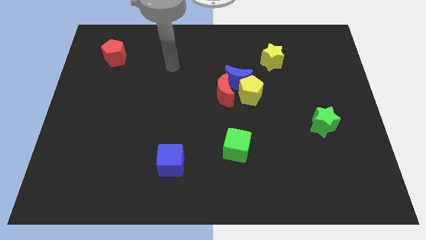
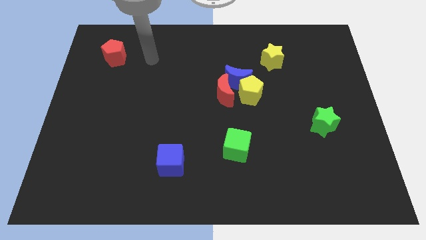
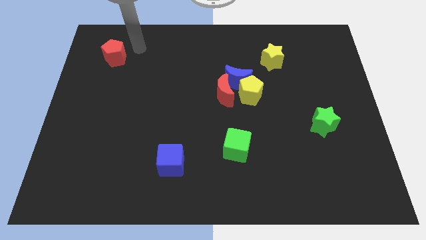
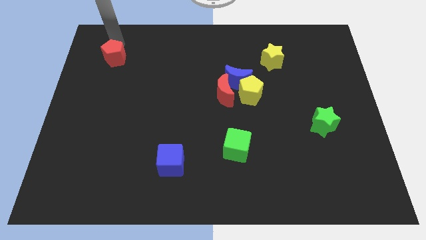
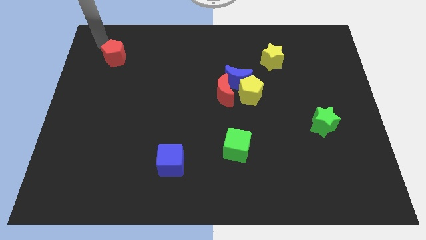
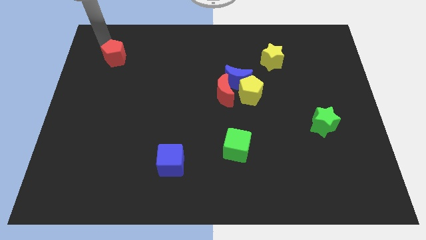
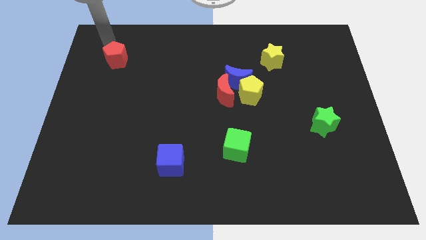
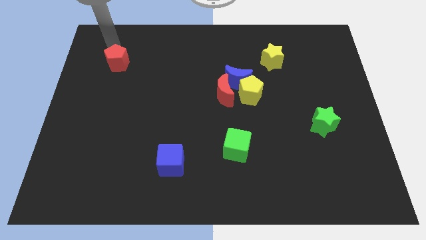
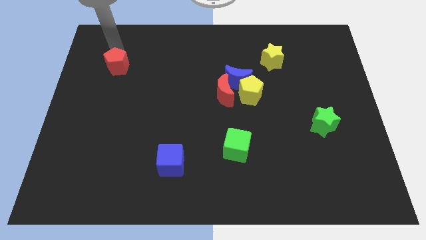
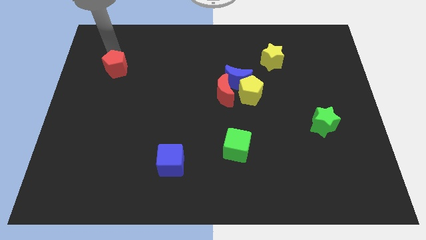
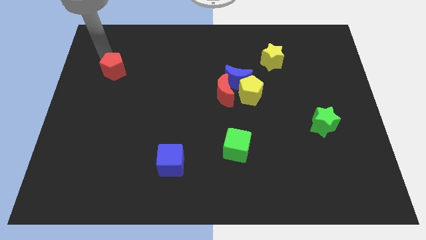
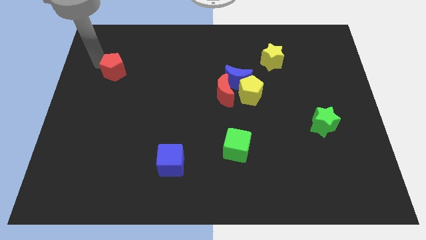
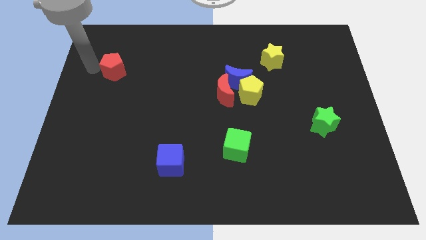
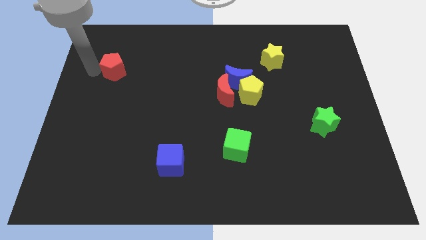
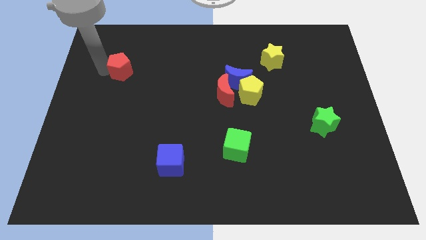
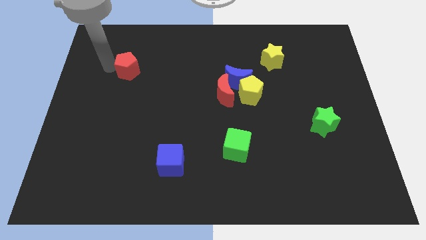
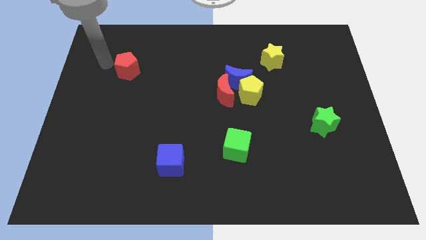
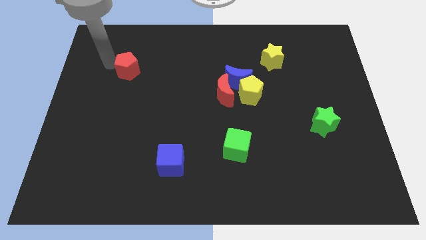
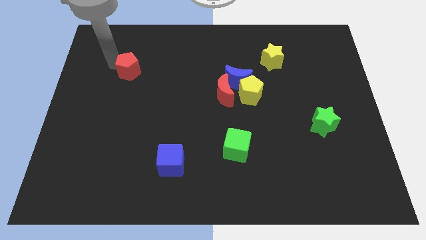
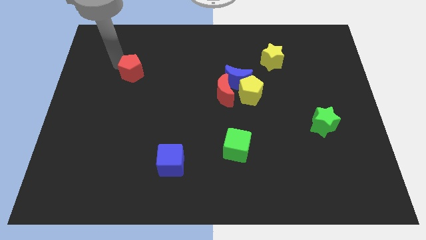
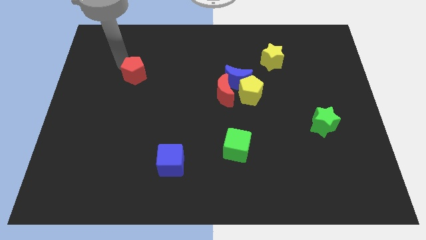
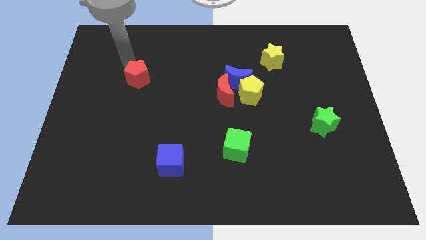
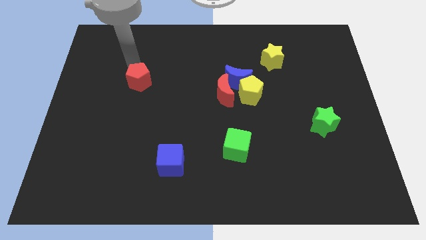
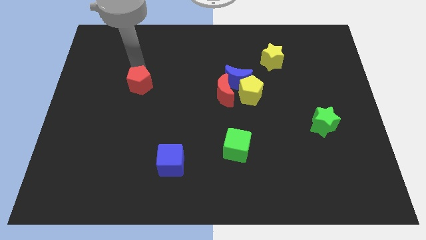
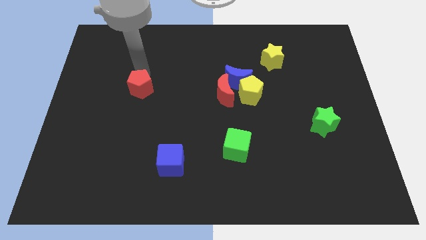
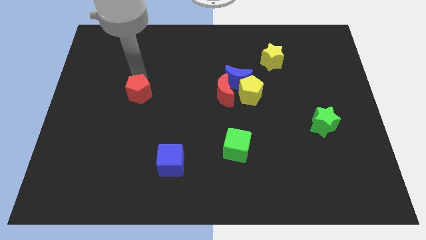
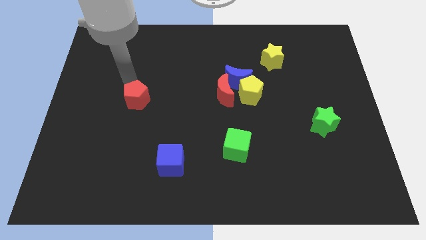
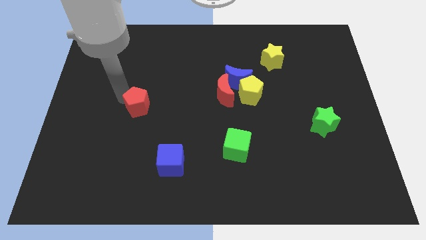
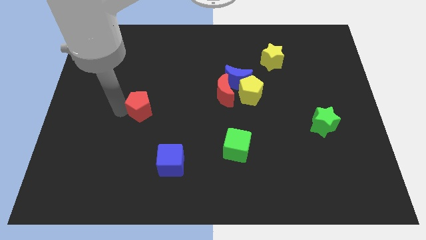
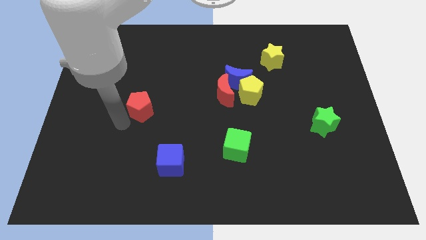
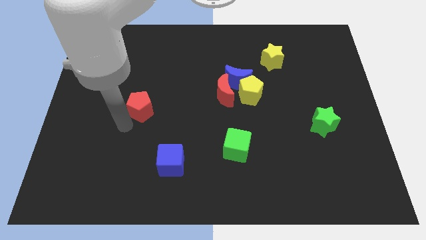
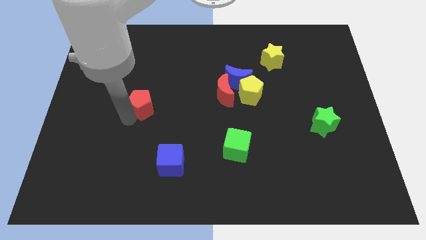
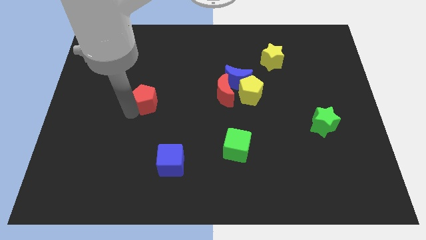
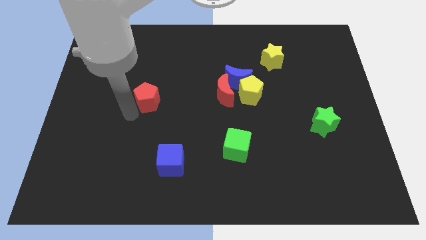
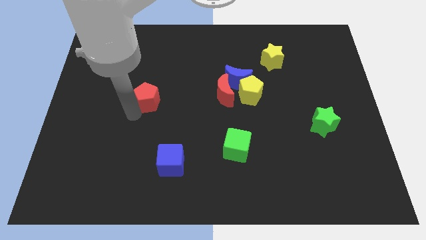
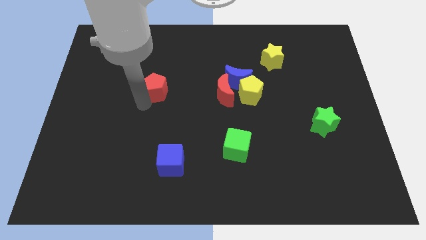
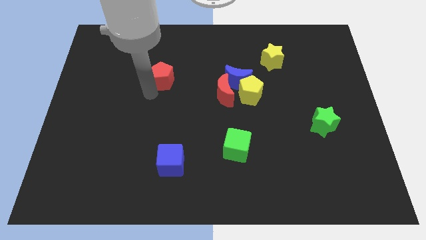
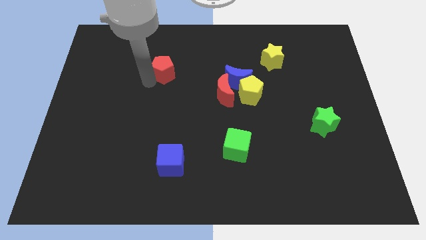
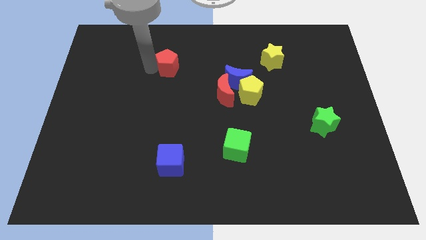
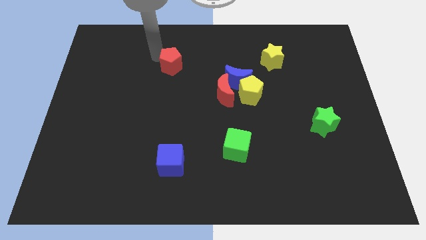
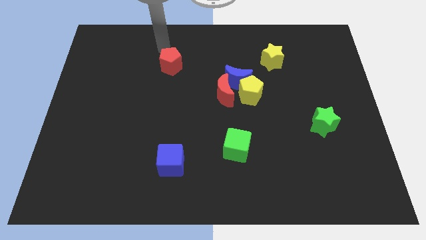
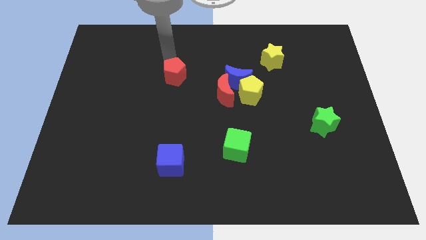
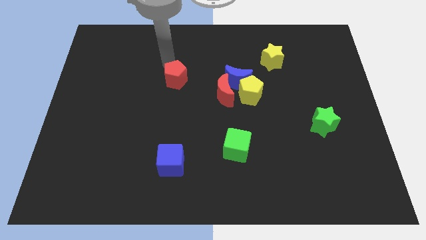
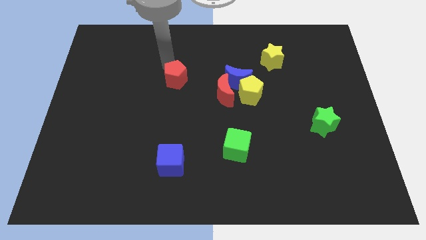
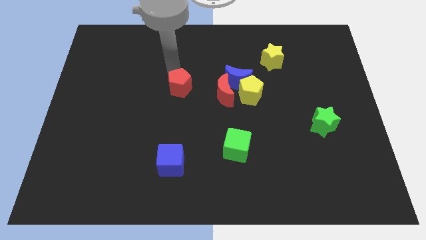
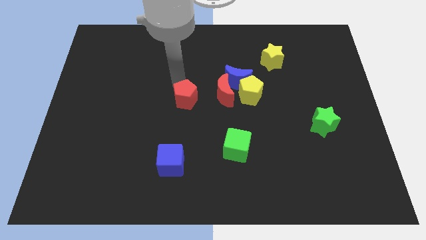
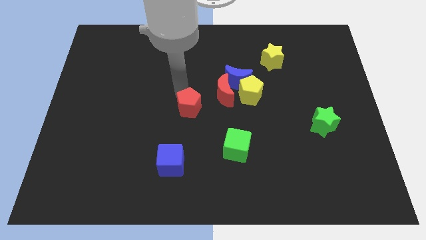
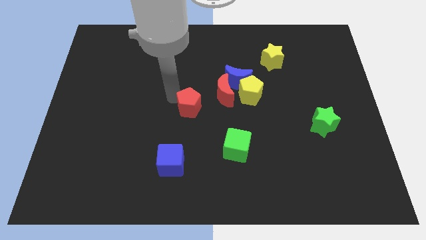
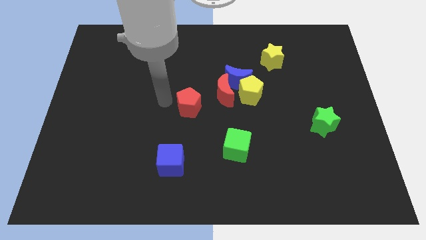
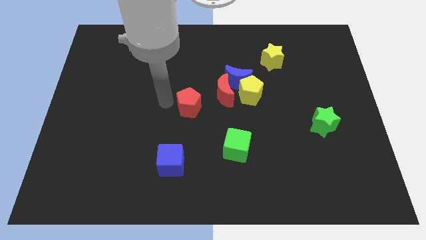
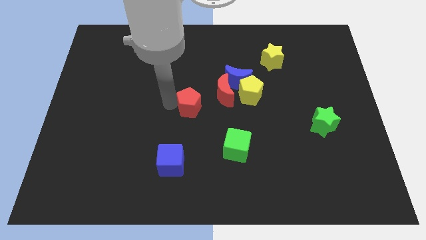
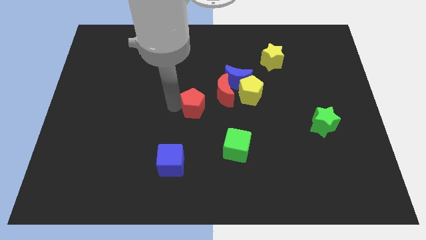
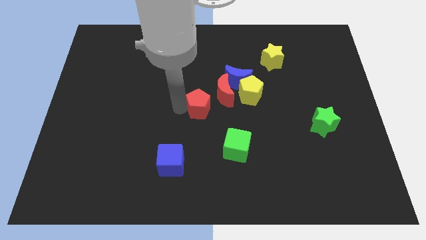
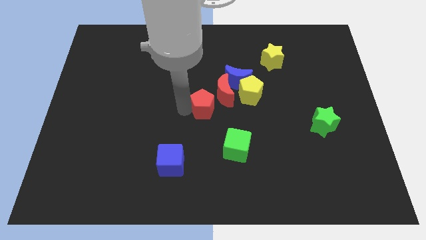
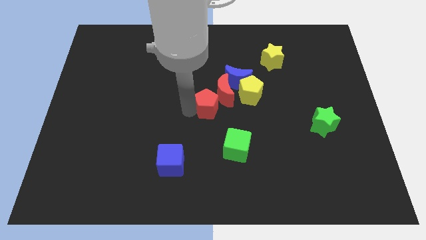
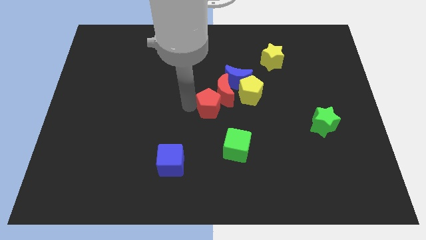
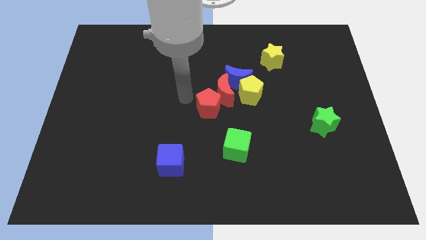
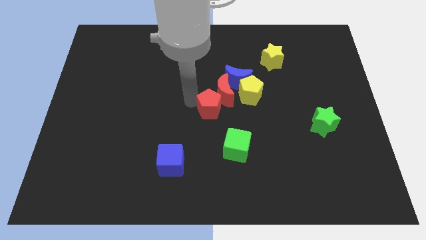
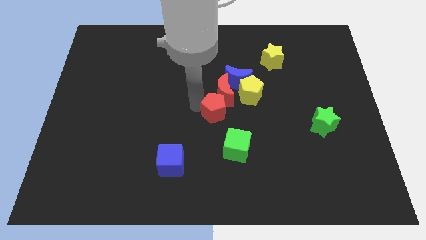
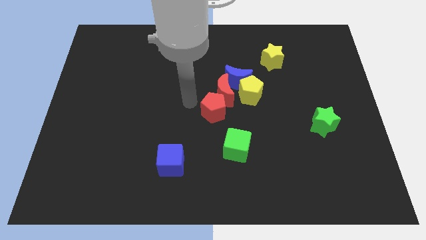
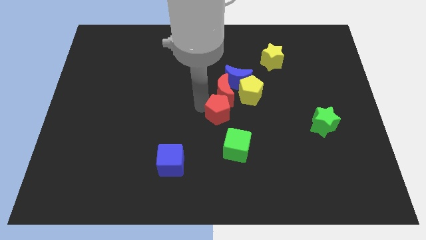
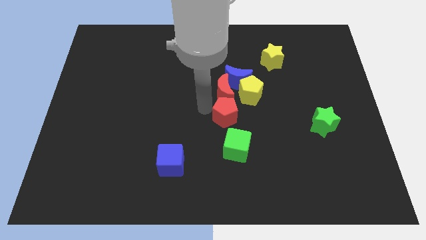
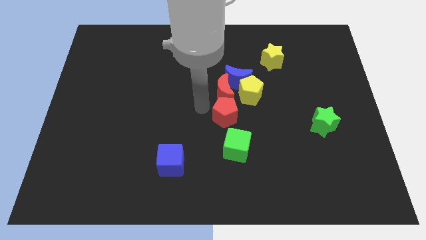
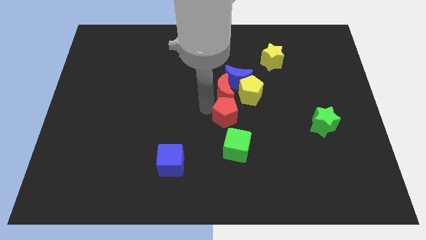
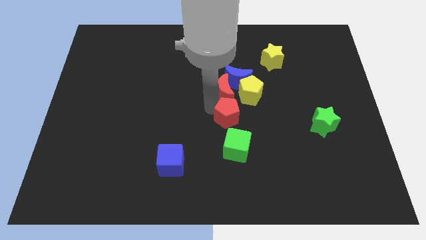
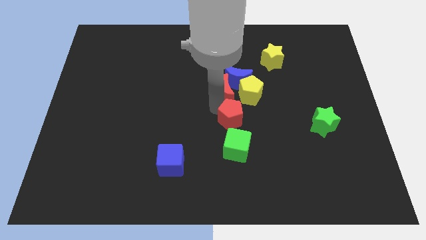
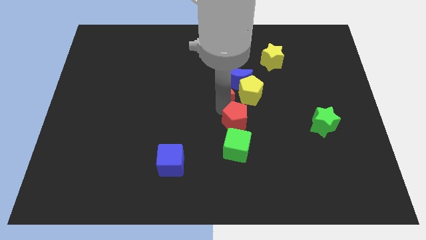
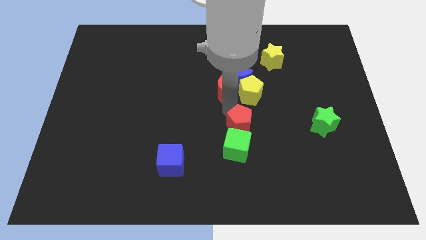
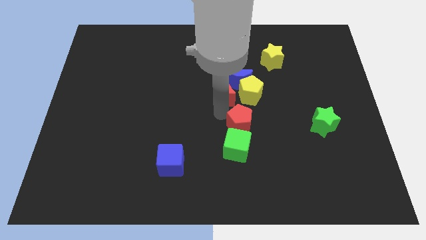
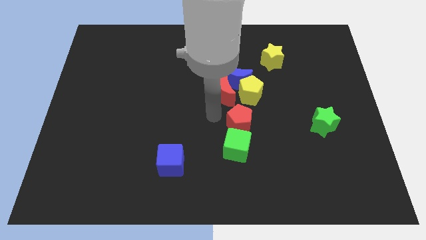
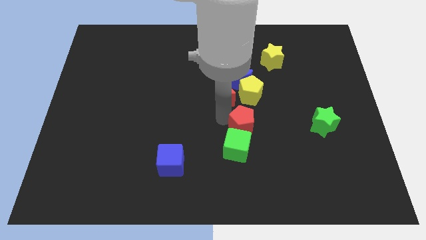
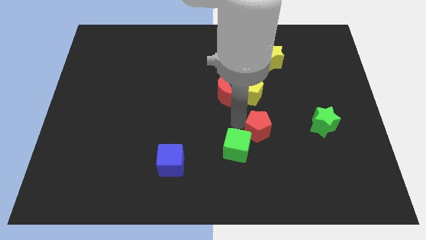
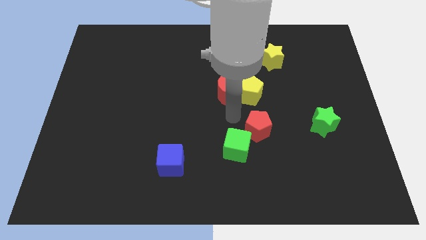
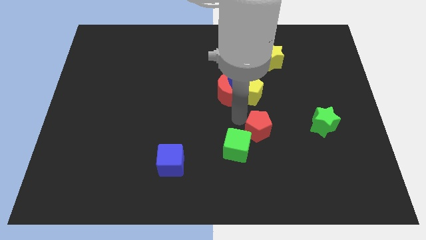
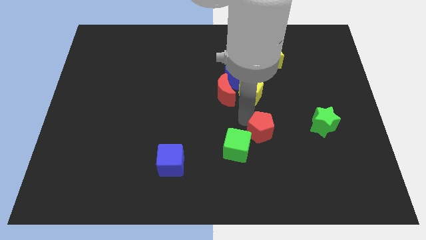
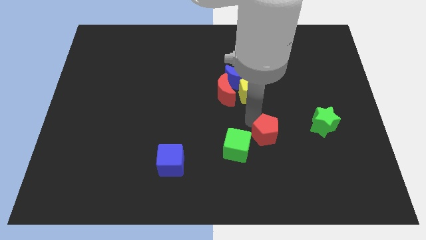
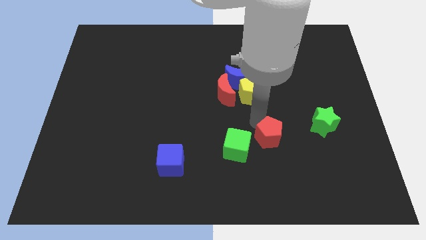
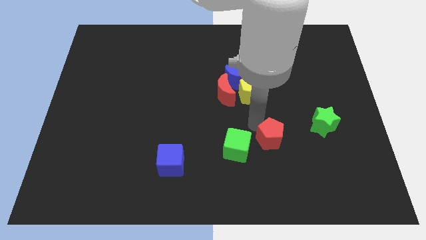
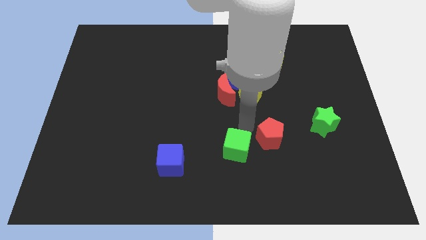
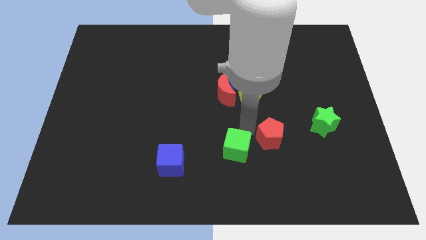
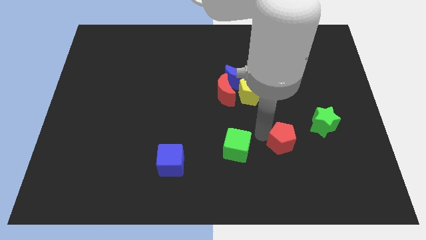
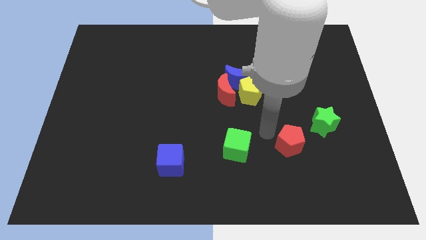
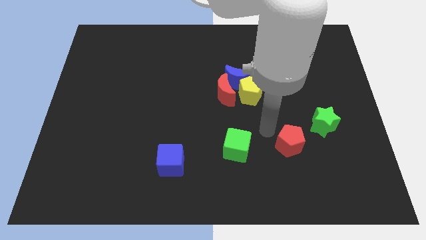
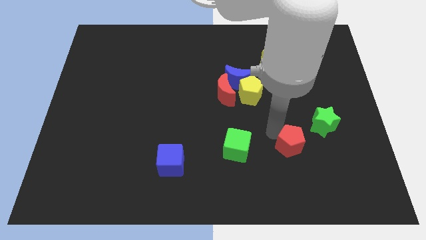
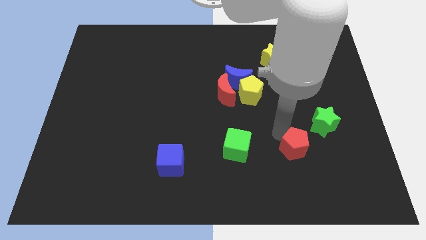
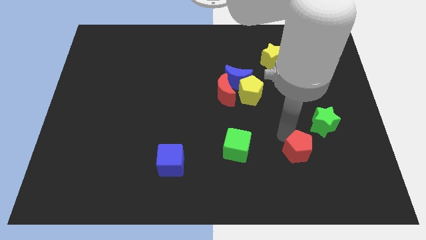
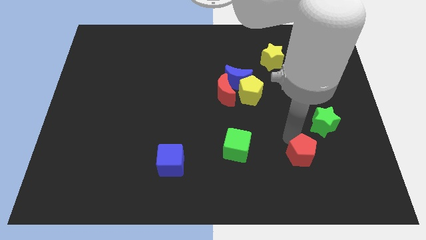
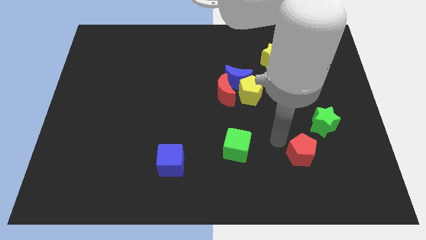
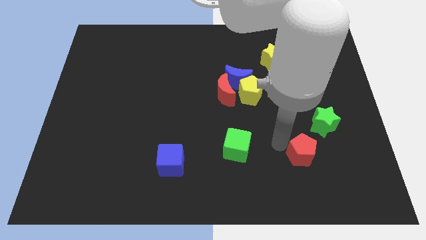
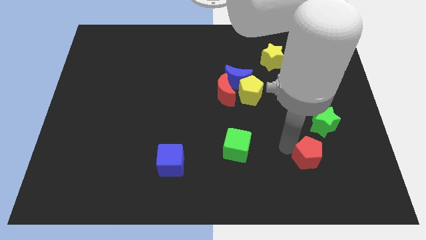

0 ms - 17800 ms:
slide the red pentagon to the bottom side of the green star
